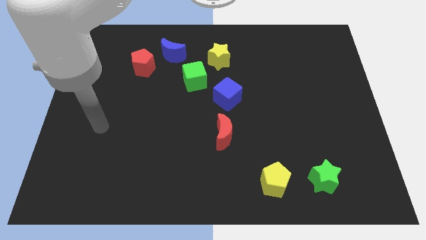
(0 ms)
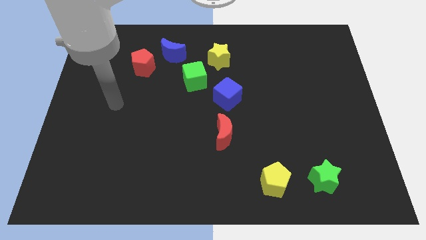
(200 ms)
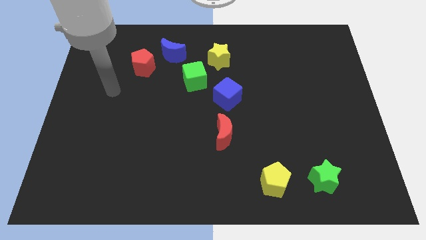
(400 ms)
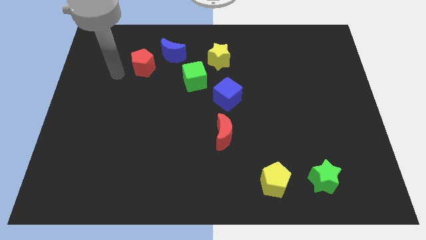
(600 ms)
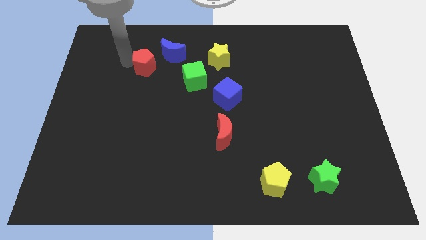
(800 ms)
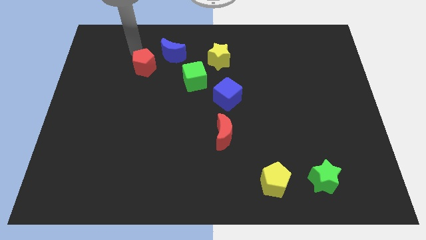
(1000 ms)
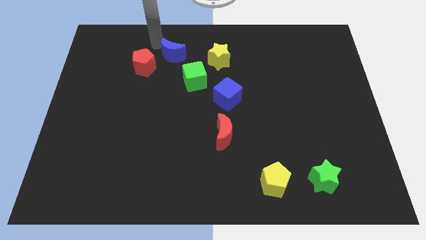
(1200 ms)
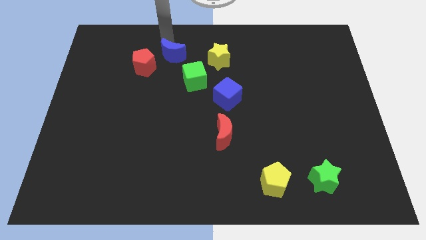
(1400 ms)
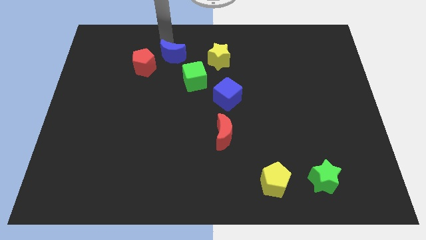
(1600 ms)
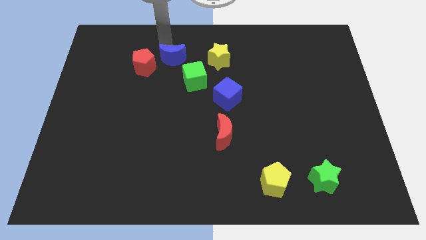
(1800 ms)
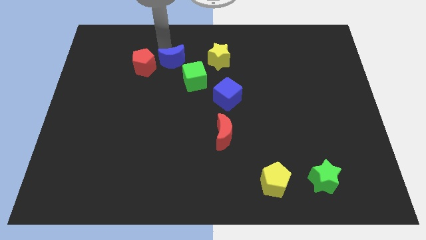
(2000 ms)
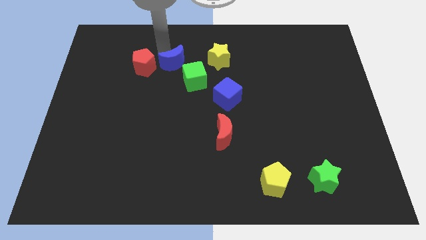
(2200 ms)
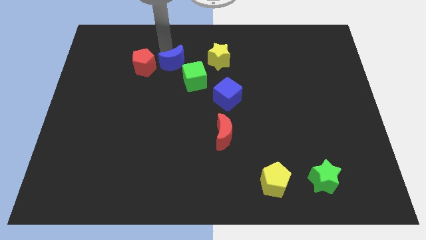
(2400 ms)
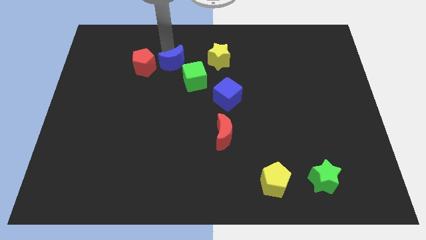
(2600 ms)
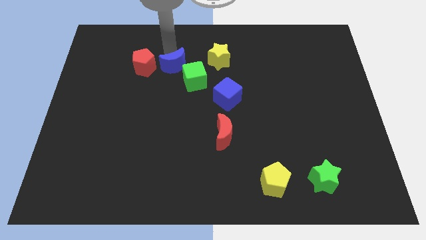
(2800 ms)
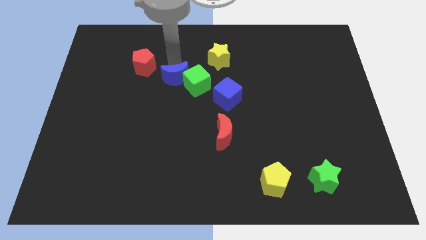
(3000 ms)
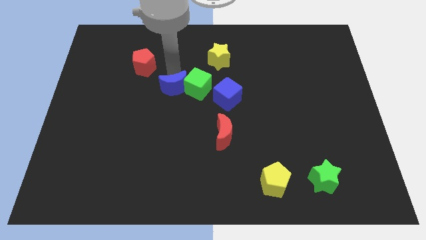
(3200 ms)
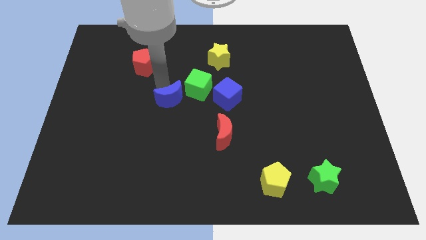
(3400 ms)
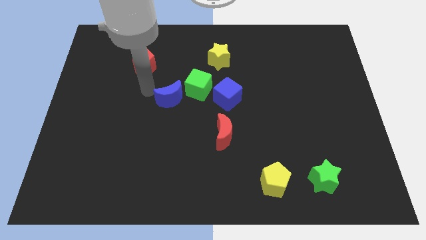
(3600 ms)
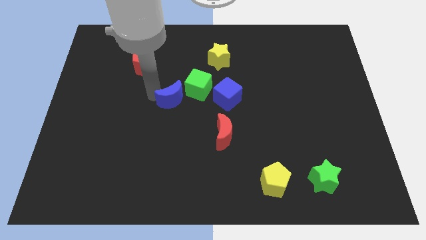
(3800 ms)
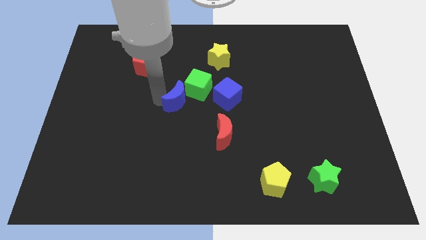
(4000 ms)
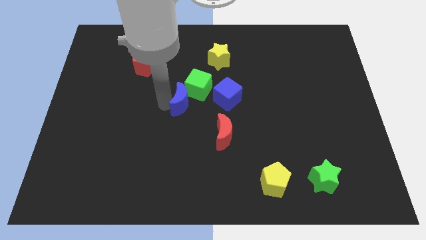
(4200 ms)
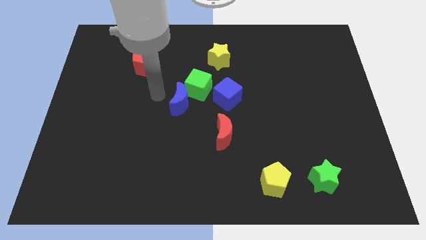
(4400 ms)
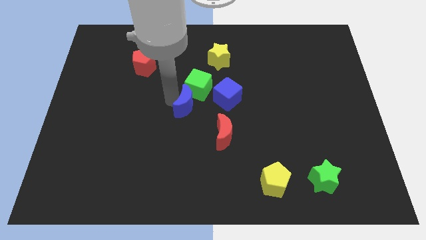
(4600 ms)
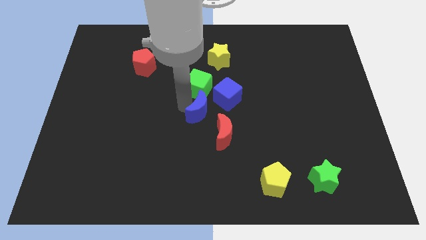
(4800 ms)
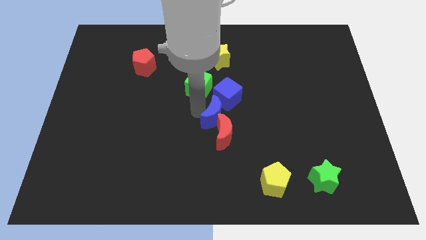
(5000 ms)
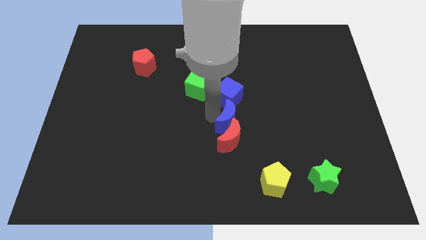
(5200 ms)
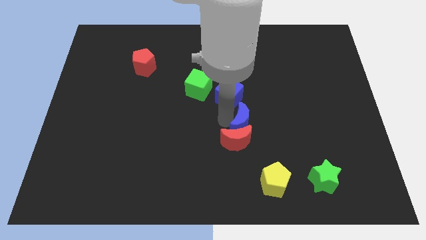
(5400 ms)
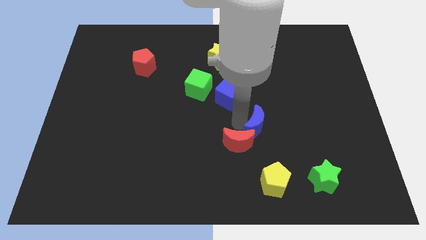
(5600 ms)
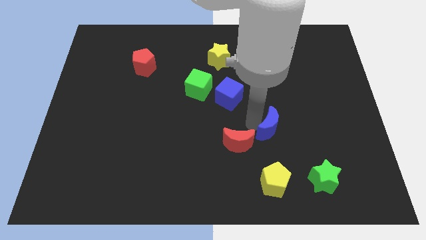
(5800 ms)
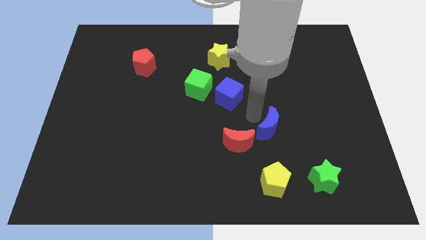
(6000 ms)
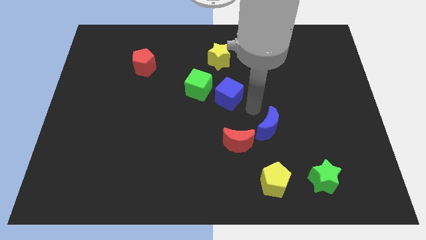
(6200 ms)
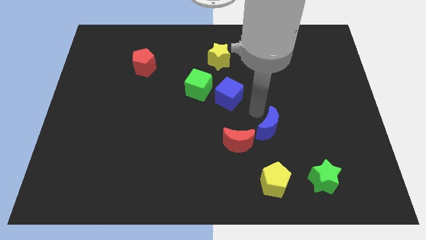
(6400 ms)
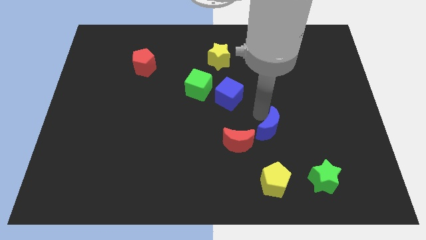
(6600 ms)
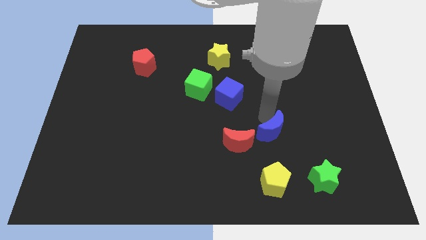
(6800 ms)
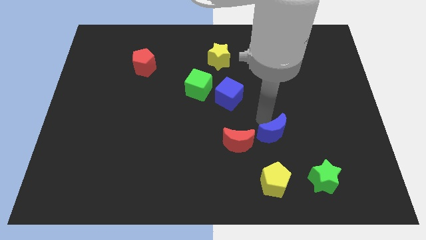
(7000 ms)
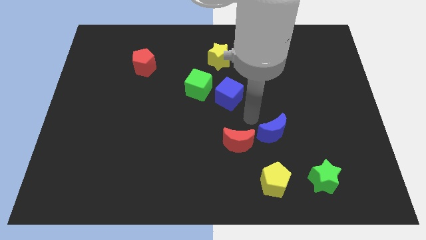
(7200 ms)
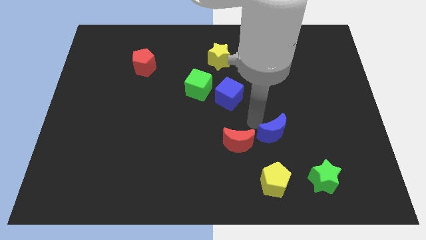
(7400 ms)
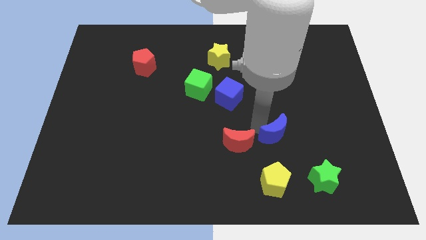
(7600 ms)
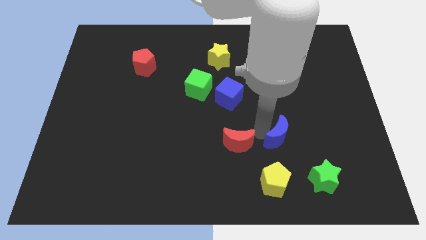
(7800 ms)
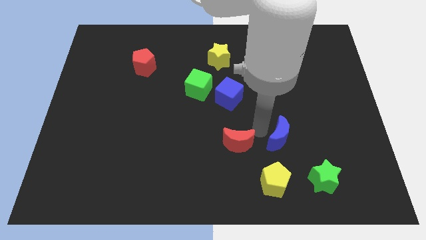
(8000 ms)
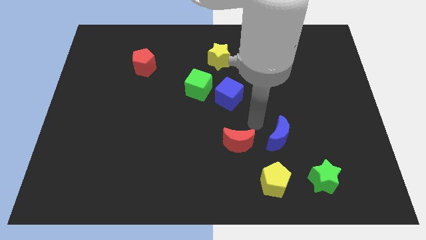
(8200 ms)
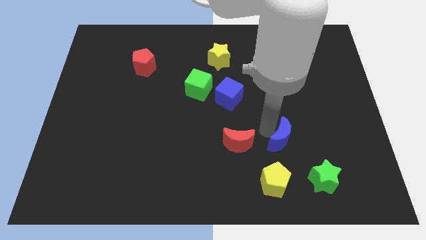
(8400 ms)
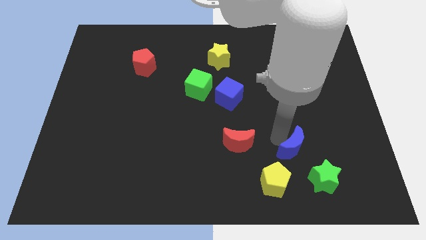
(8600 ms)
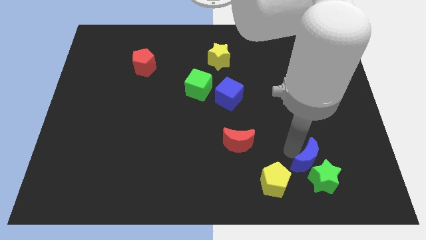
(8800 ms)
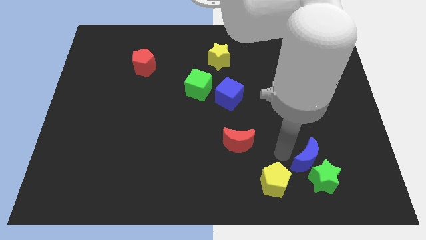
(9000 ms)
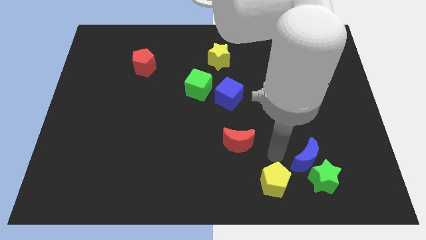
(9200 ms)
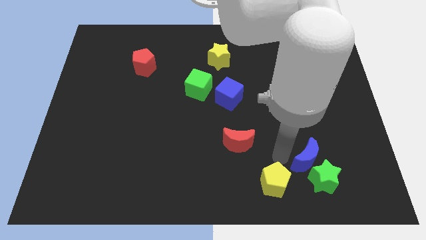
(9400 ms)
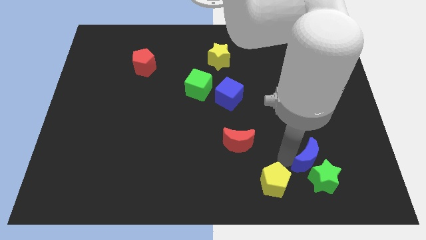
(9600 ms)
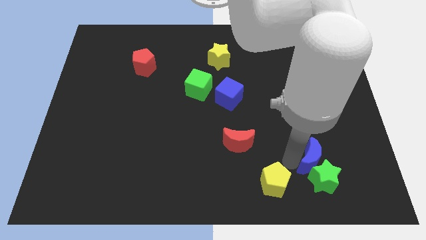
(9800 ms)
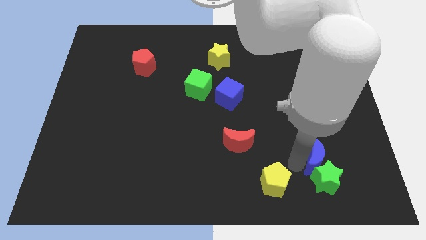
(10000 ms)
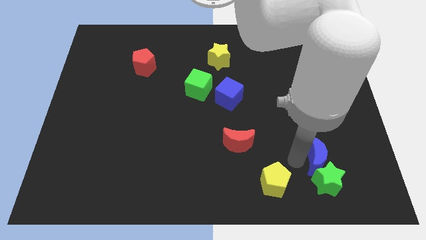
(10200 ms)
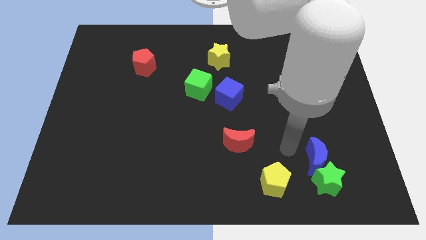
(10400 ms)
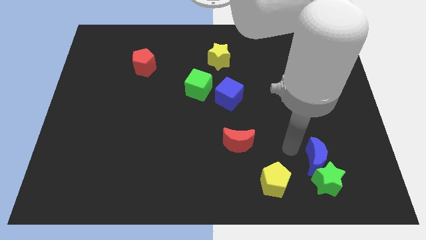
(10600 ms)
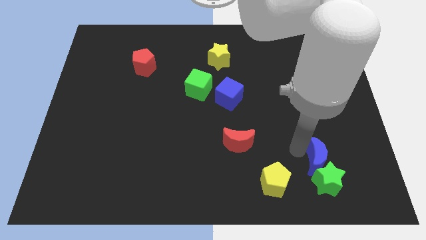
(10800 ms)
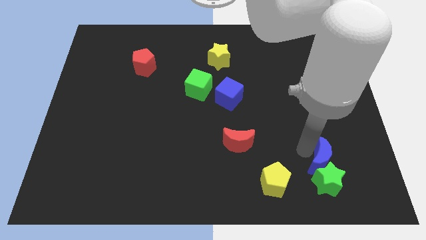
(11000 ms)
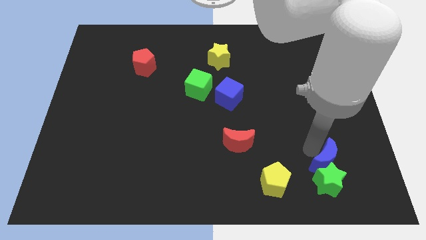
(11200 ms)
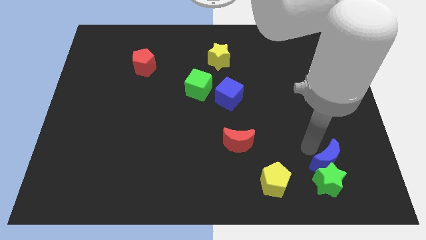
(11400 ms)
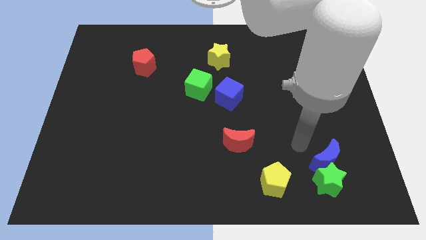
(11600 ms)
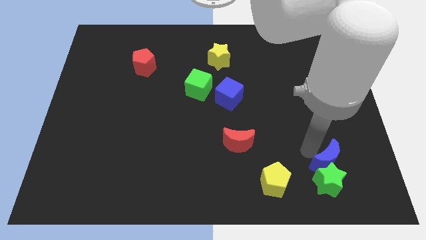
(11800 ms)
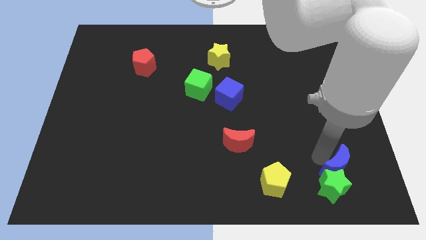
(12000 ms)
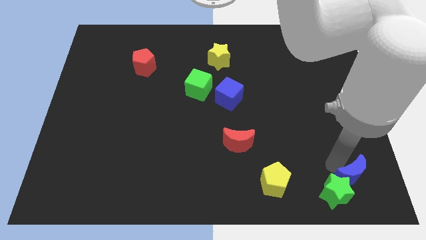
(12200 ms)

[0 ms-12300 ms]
slide the blue moon to the lower right corner
